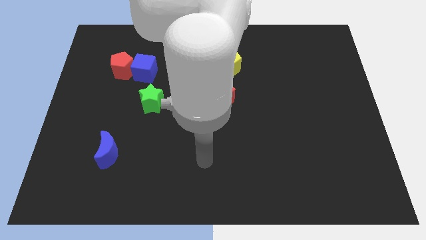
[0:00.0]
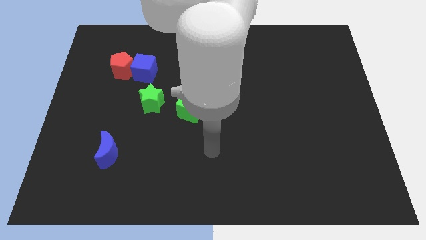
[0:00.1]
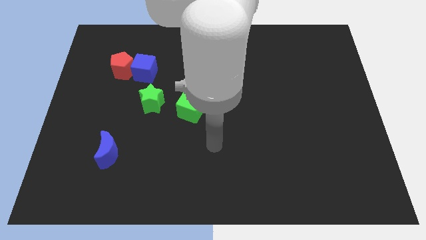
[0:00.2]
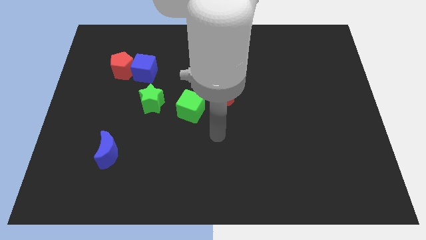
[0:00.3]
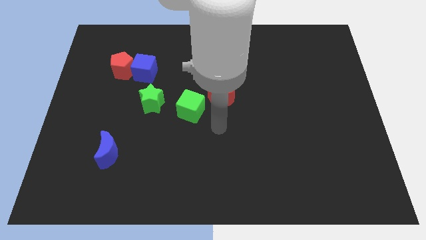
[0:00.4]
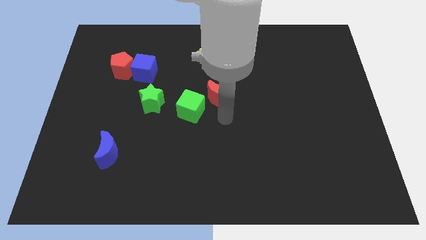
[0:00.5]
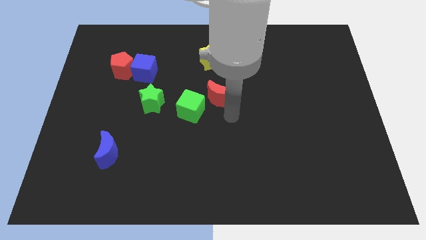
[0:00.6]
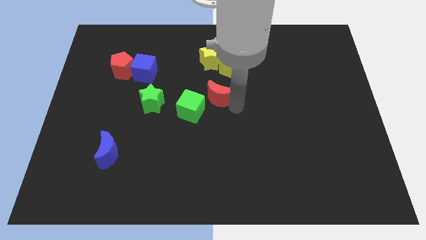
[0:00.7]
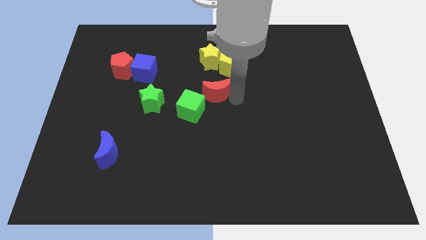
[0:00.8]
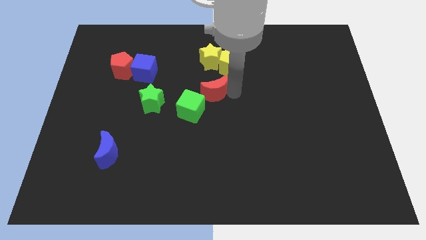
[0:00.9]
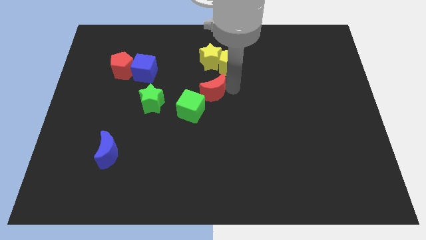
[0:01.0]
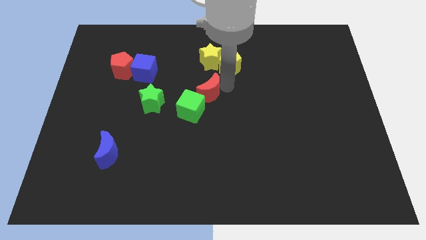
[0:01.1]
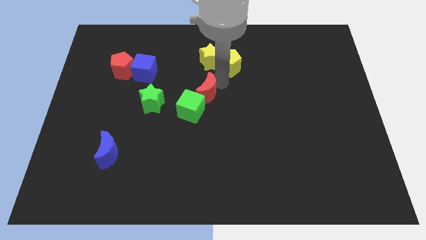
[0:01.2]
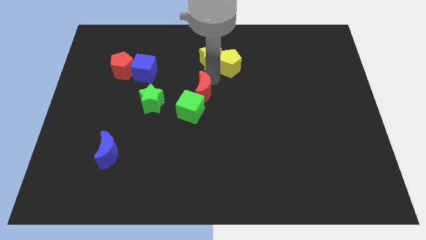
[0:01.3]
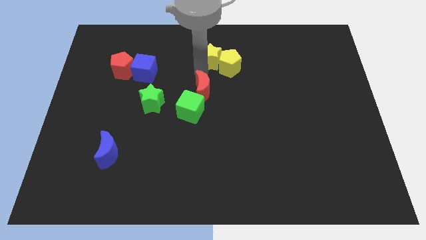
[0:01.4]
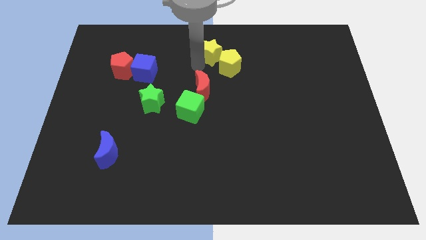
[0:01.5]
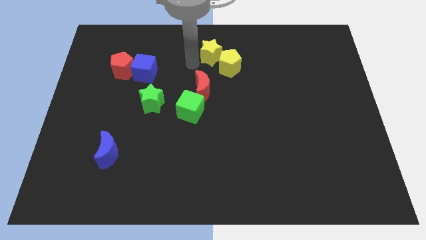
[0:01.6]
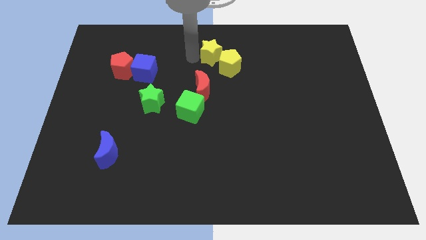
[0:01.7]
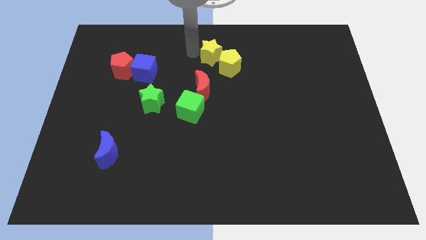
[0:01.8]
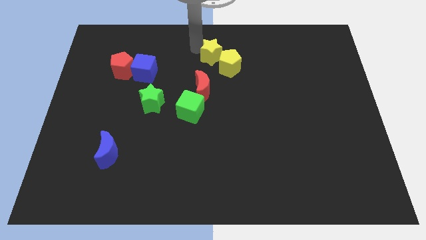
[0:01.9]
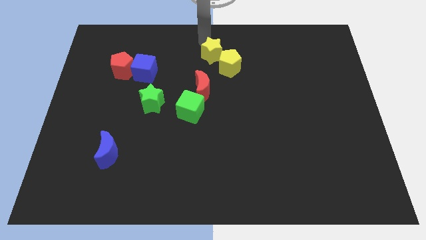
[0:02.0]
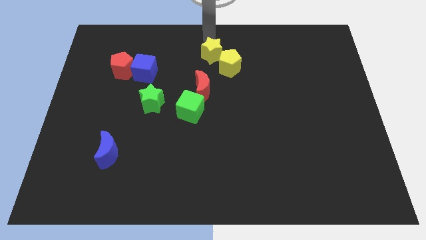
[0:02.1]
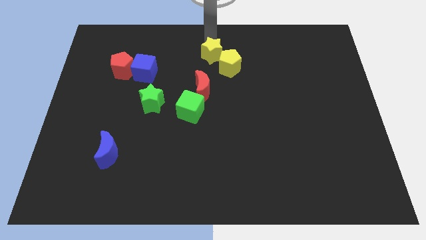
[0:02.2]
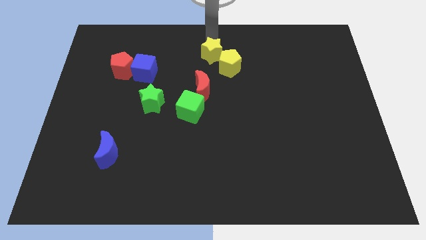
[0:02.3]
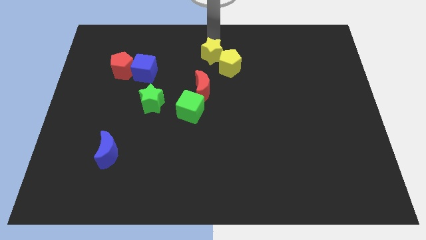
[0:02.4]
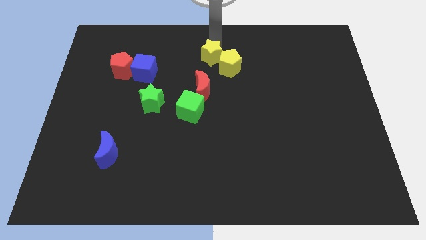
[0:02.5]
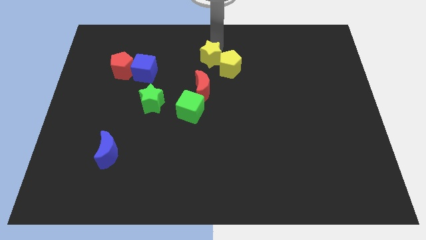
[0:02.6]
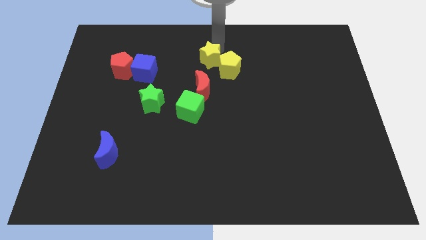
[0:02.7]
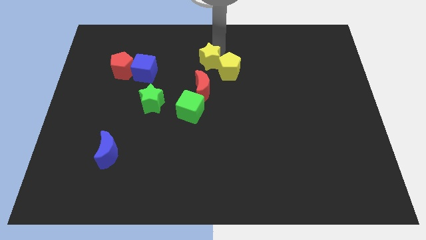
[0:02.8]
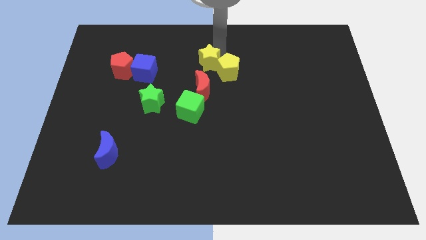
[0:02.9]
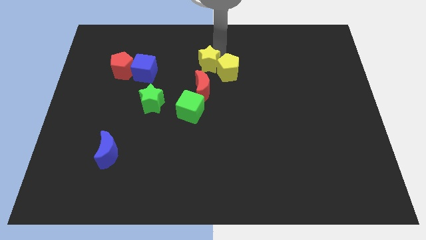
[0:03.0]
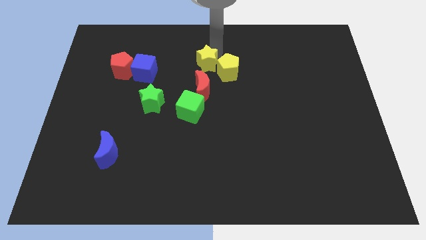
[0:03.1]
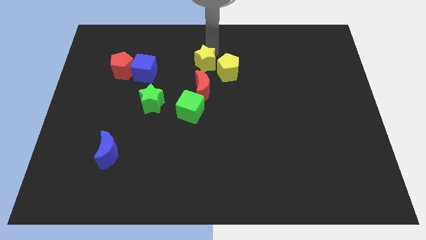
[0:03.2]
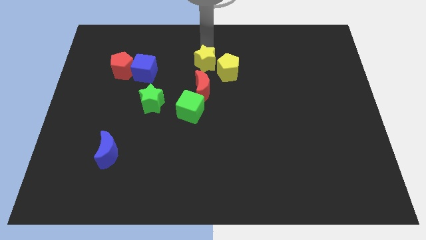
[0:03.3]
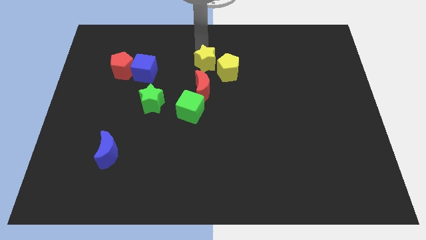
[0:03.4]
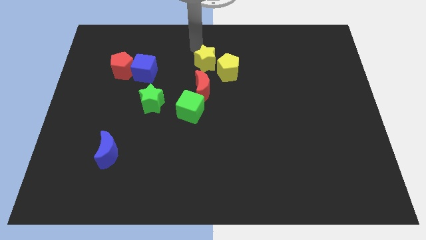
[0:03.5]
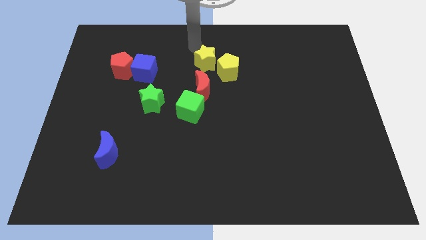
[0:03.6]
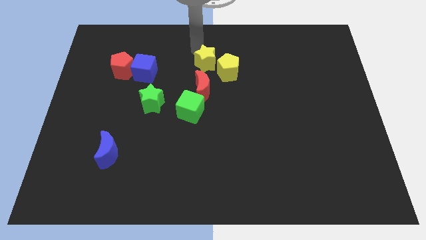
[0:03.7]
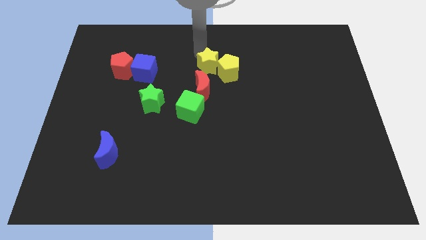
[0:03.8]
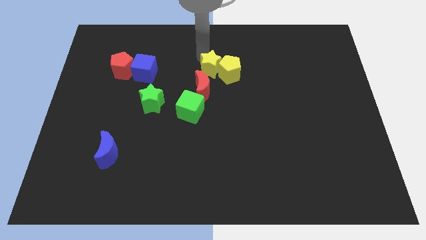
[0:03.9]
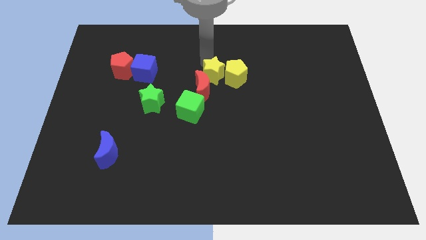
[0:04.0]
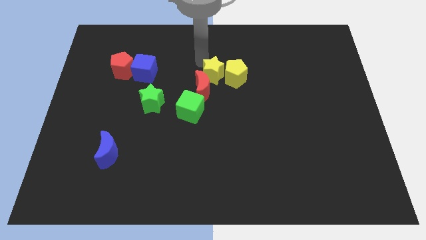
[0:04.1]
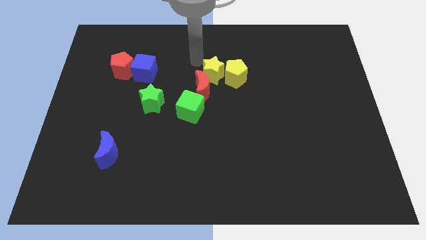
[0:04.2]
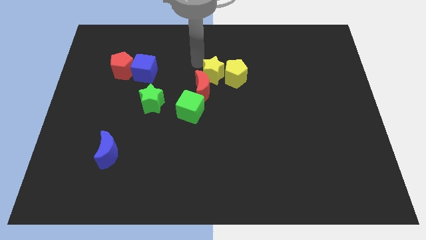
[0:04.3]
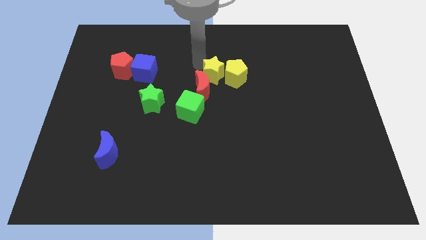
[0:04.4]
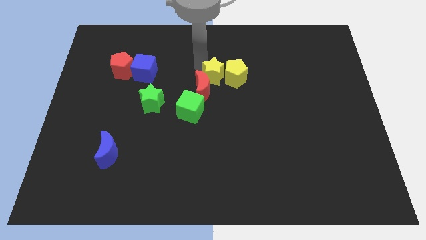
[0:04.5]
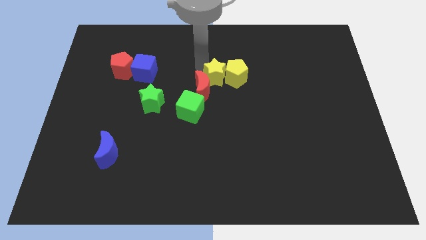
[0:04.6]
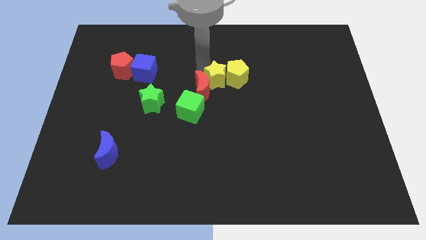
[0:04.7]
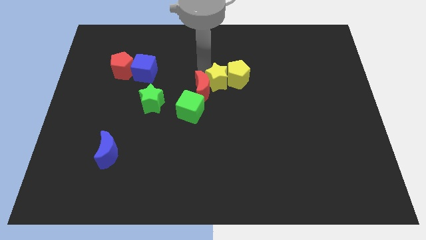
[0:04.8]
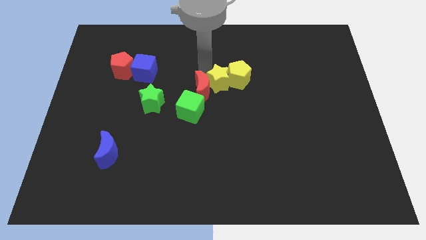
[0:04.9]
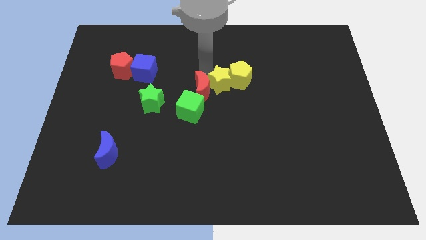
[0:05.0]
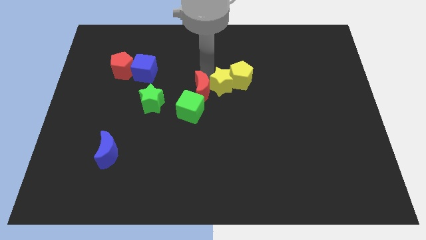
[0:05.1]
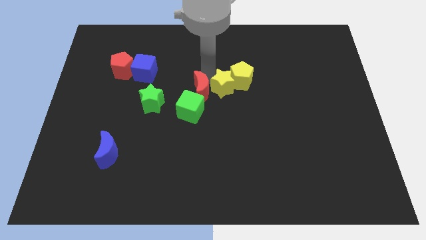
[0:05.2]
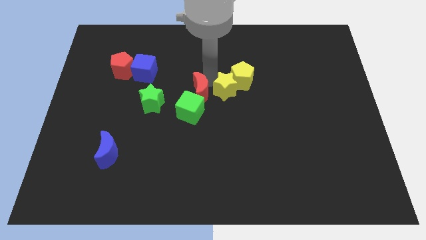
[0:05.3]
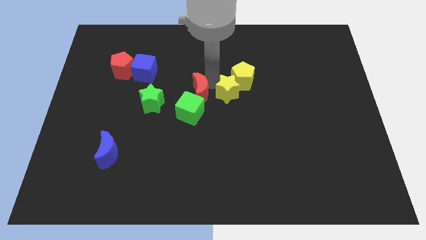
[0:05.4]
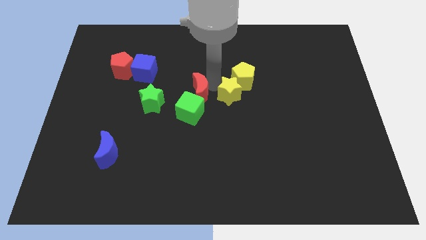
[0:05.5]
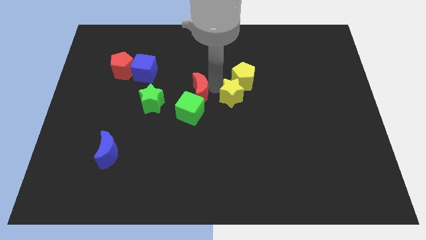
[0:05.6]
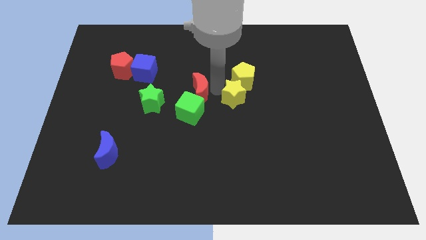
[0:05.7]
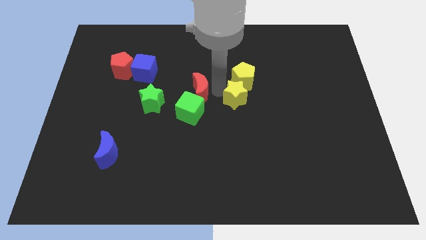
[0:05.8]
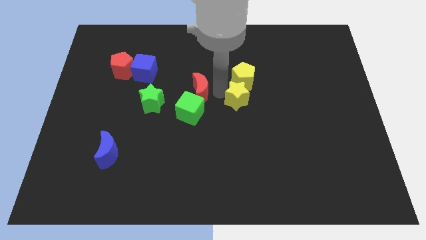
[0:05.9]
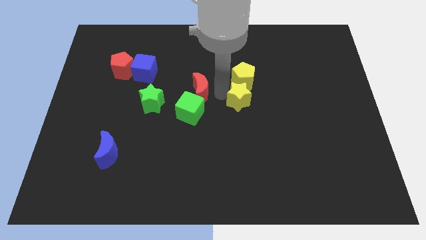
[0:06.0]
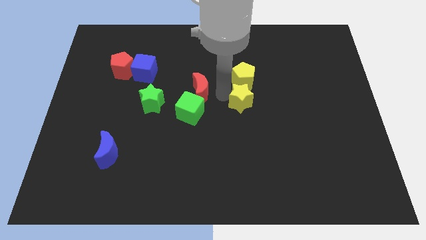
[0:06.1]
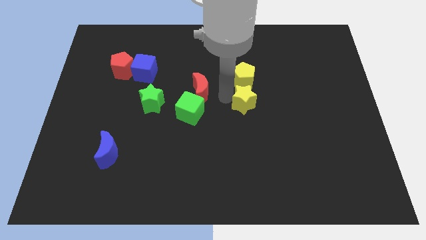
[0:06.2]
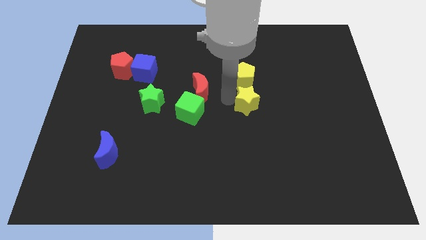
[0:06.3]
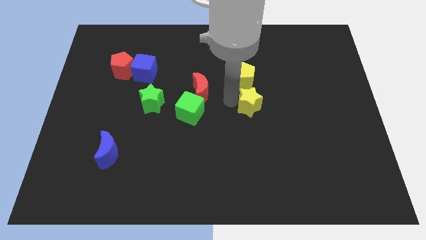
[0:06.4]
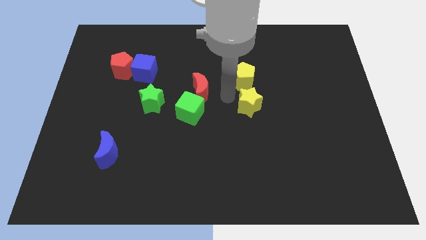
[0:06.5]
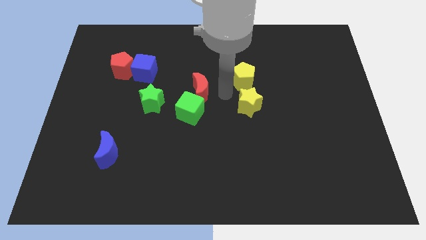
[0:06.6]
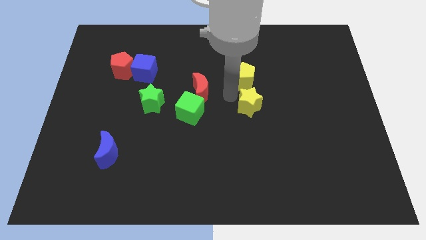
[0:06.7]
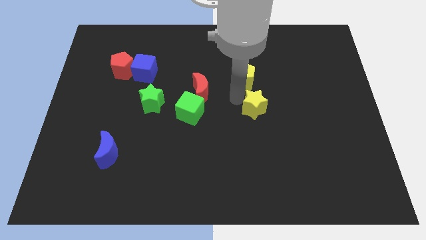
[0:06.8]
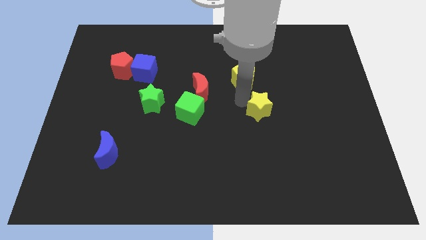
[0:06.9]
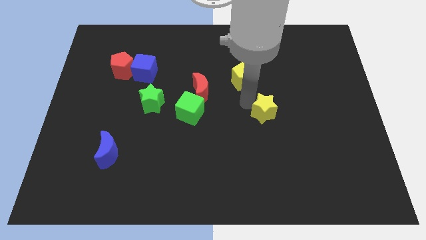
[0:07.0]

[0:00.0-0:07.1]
push the yellow star down and to the right

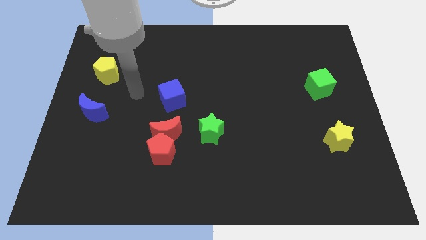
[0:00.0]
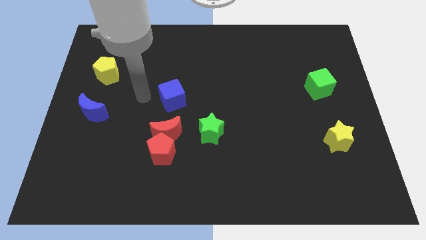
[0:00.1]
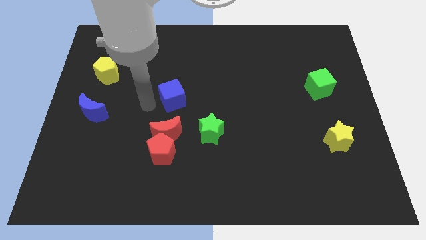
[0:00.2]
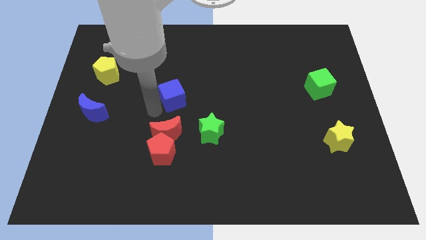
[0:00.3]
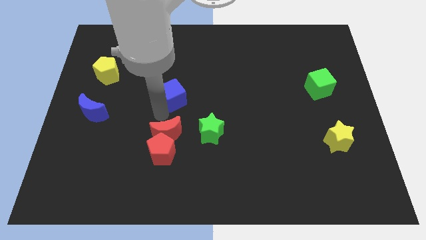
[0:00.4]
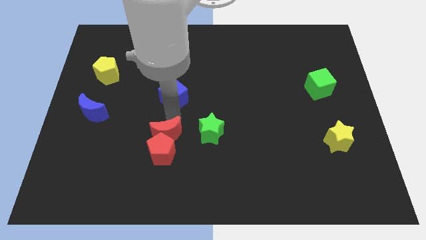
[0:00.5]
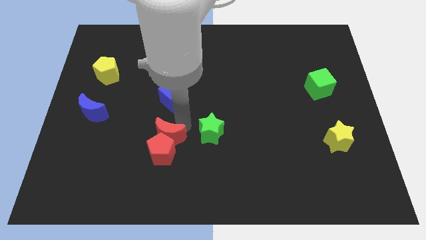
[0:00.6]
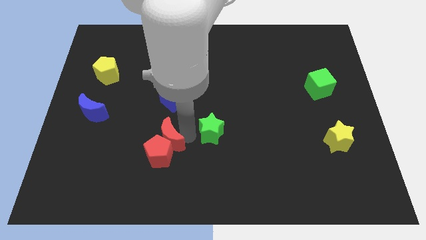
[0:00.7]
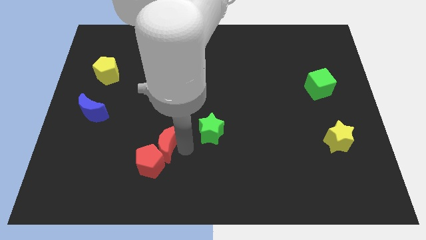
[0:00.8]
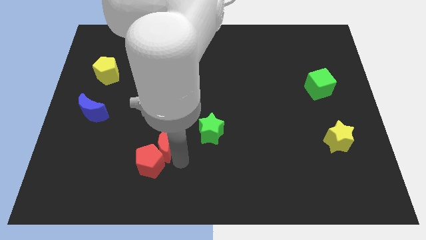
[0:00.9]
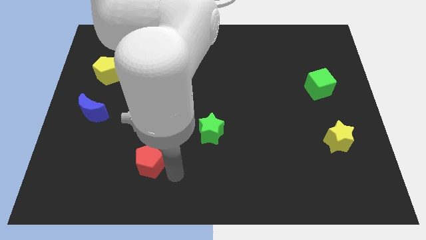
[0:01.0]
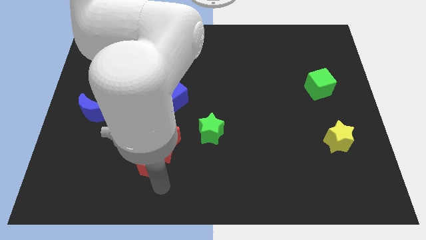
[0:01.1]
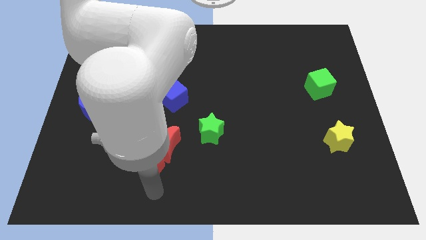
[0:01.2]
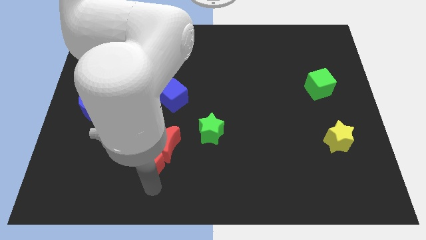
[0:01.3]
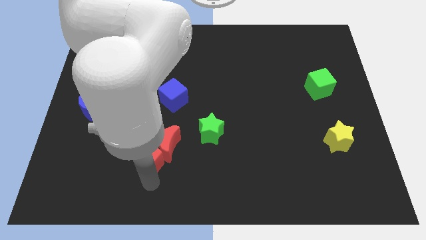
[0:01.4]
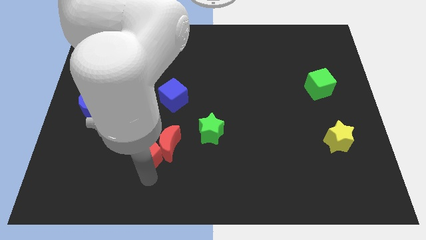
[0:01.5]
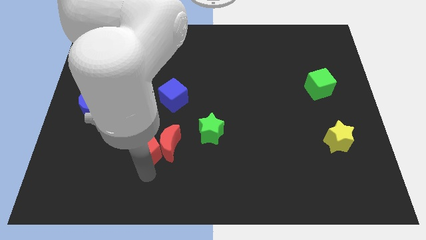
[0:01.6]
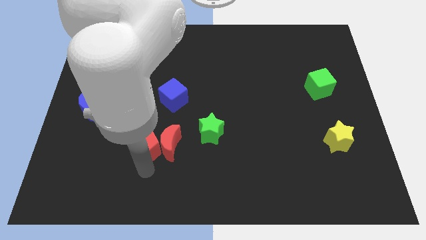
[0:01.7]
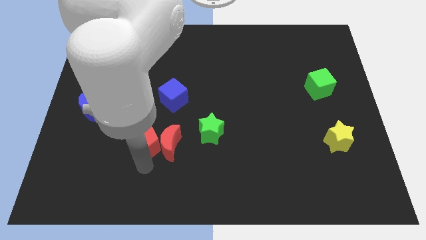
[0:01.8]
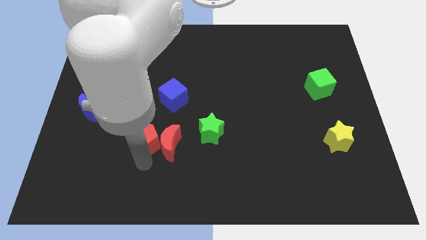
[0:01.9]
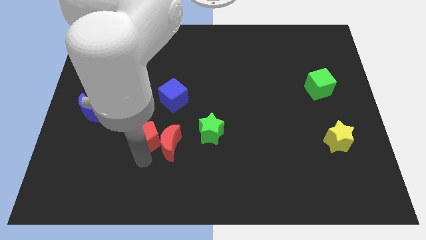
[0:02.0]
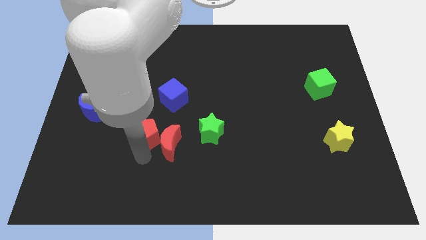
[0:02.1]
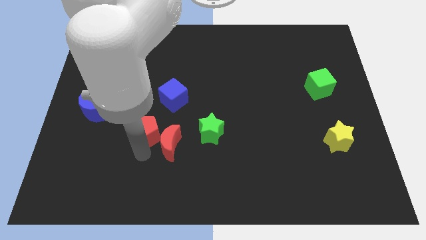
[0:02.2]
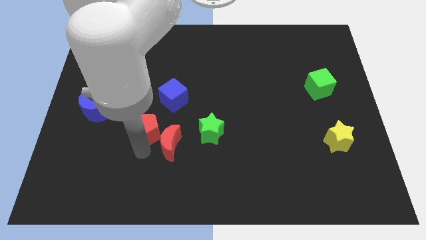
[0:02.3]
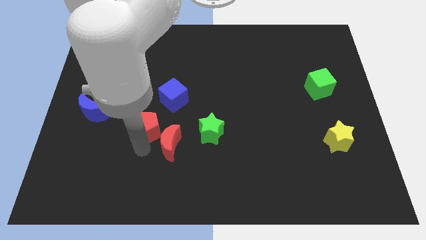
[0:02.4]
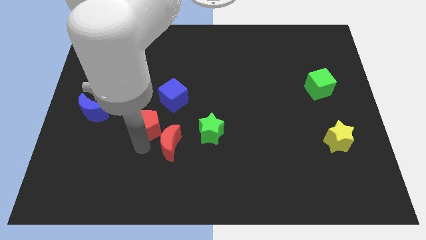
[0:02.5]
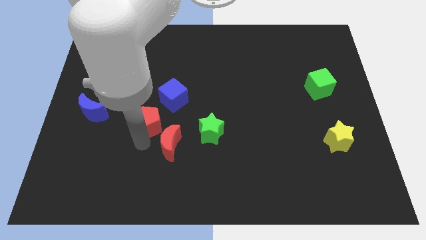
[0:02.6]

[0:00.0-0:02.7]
move the red pentagon a little bit up
